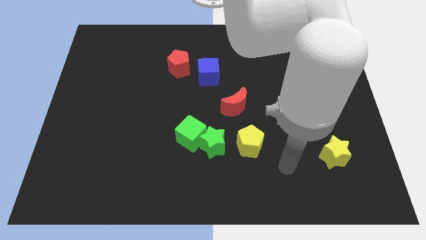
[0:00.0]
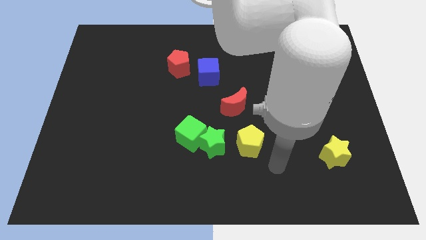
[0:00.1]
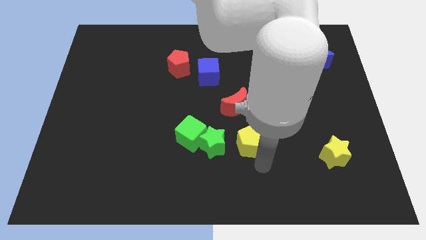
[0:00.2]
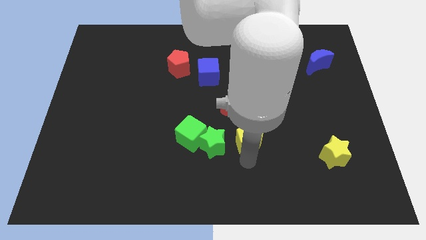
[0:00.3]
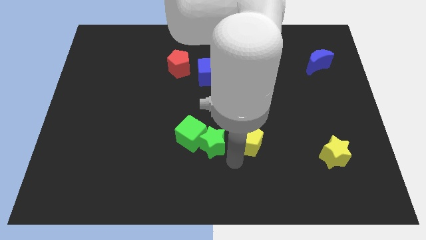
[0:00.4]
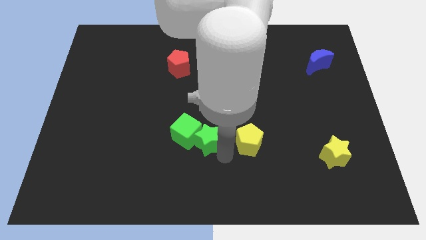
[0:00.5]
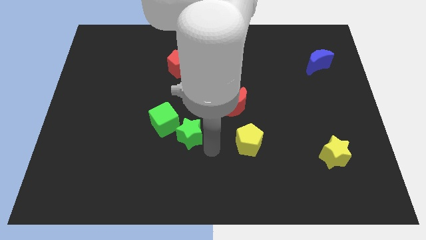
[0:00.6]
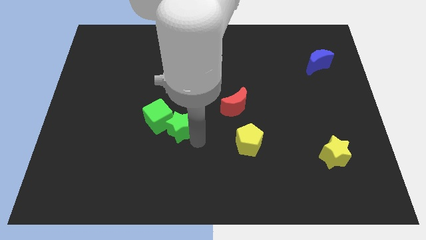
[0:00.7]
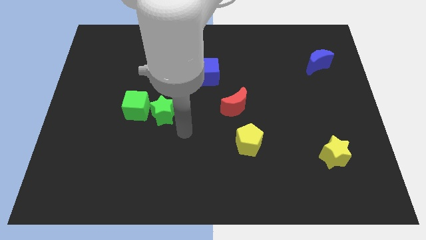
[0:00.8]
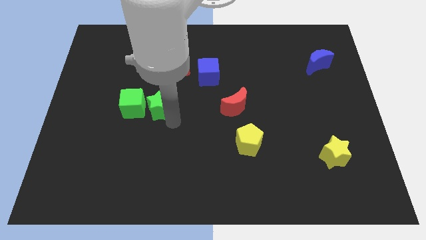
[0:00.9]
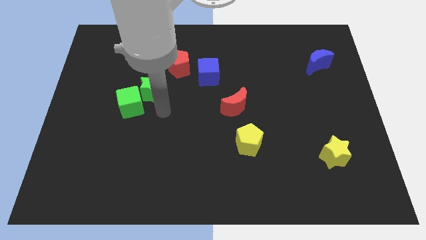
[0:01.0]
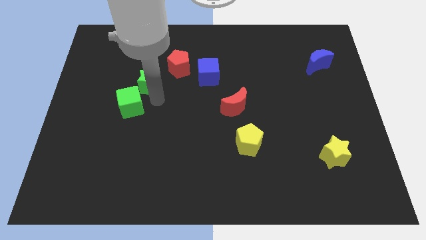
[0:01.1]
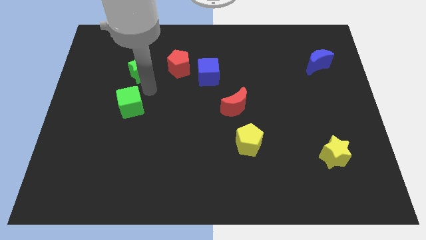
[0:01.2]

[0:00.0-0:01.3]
pull the green cube apart from the green star

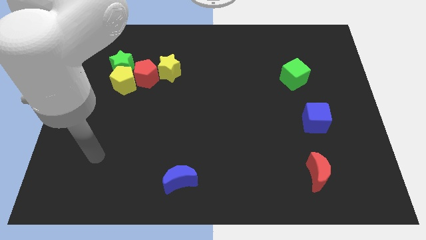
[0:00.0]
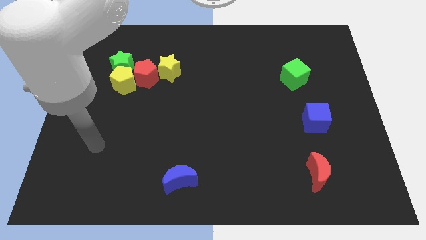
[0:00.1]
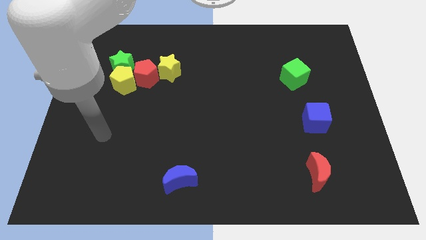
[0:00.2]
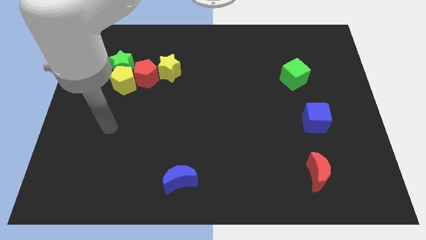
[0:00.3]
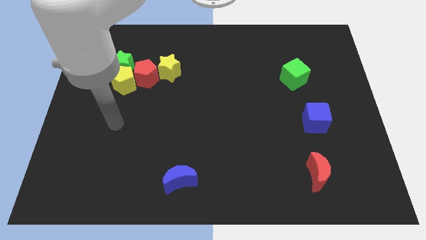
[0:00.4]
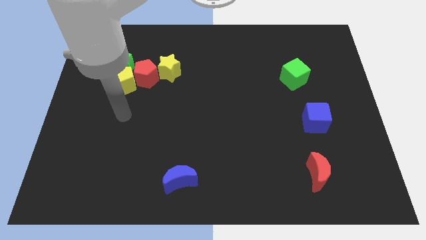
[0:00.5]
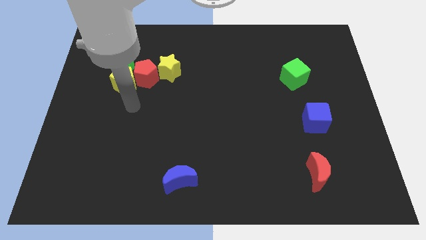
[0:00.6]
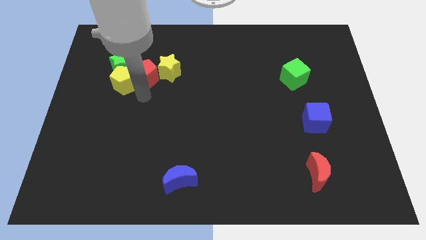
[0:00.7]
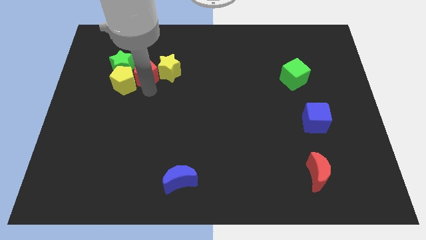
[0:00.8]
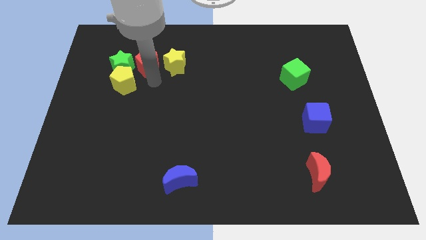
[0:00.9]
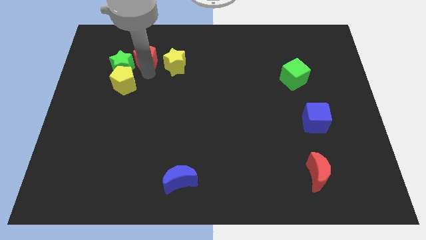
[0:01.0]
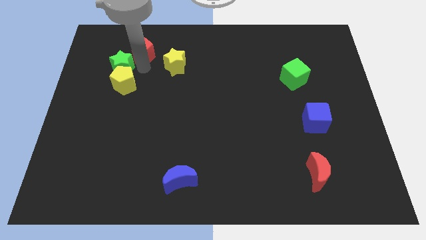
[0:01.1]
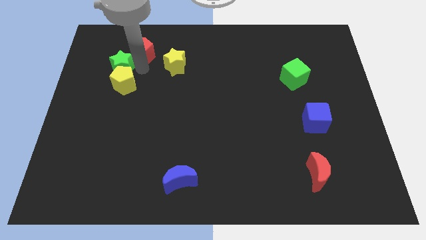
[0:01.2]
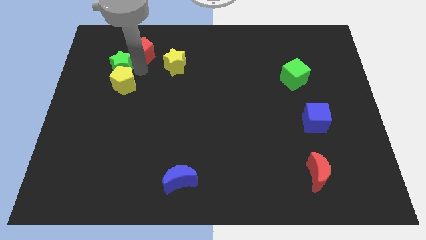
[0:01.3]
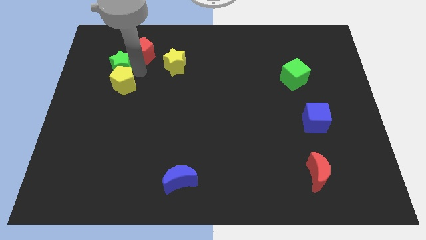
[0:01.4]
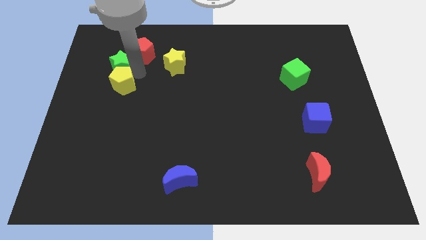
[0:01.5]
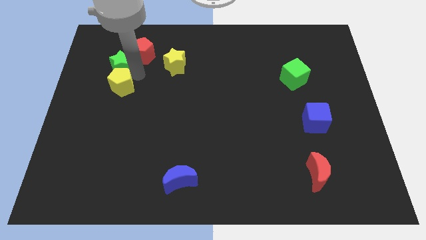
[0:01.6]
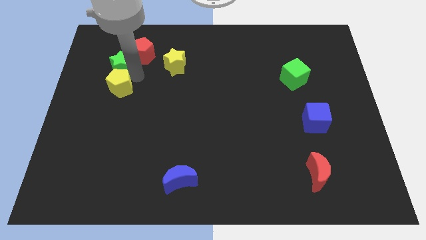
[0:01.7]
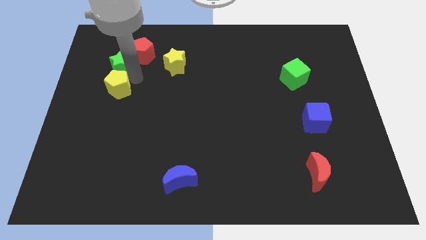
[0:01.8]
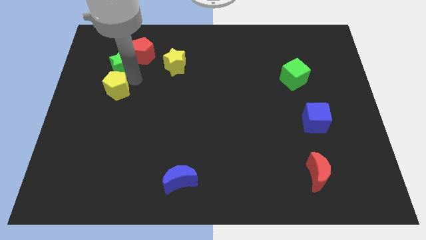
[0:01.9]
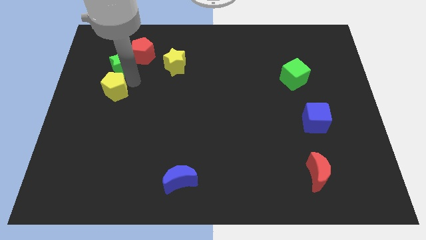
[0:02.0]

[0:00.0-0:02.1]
separate the yellow pentagon from the green star and red pentagon

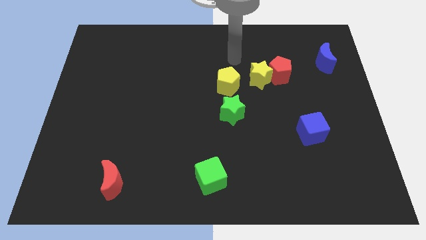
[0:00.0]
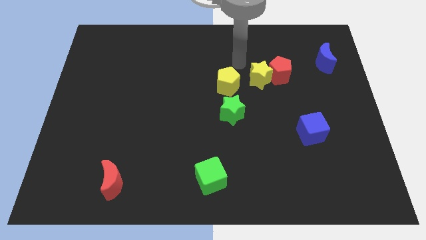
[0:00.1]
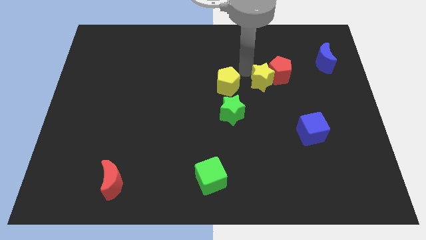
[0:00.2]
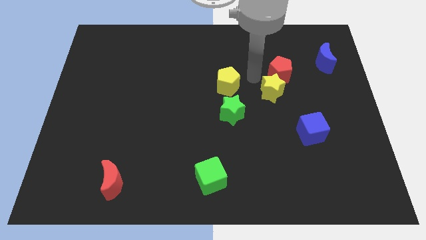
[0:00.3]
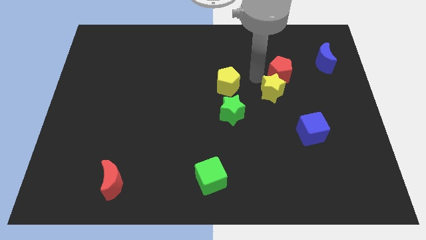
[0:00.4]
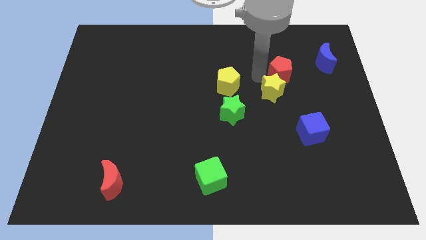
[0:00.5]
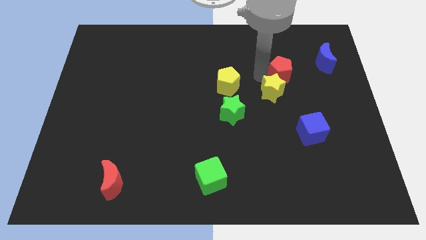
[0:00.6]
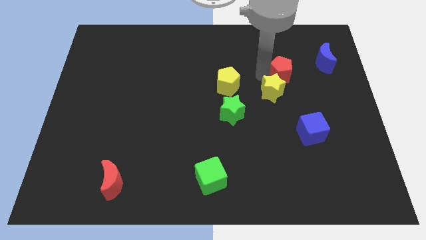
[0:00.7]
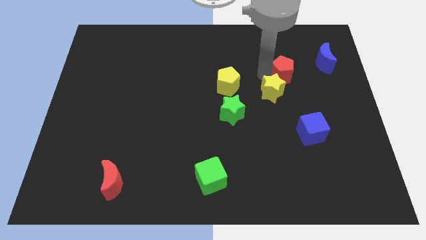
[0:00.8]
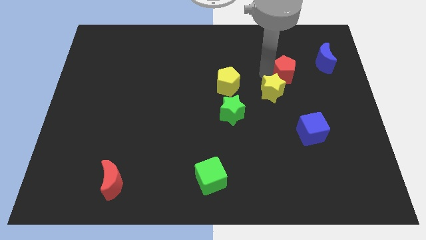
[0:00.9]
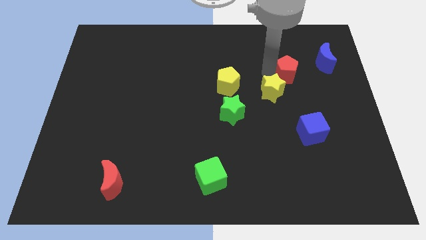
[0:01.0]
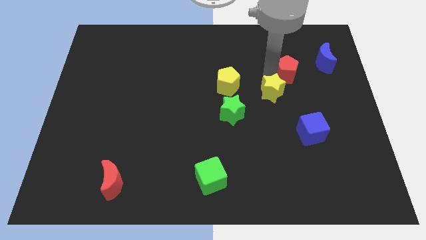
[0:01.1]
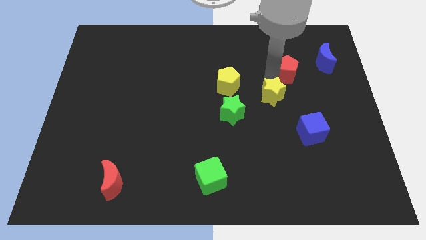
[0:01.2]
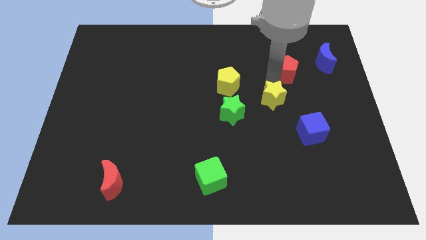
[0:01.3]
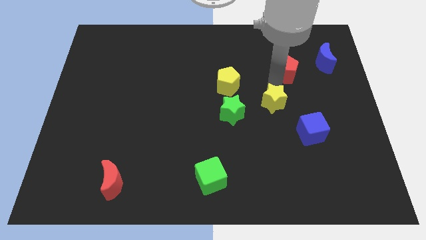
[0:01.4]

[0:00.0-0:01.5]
separate the red pentagon from the yellow star

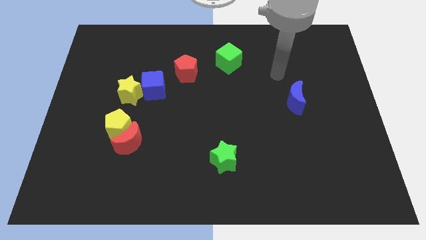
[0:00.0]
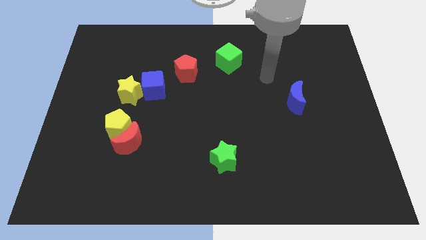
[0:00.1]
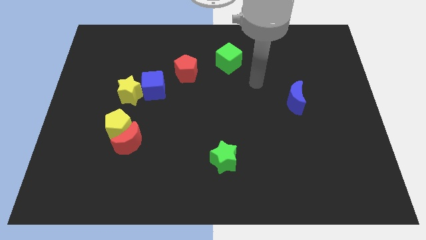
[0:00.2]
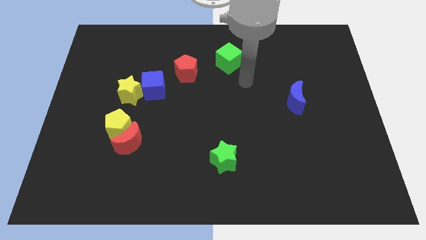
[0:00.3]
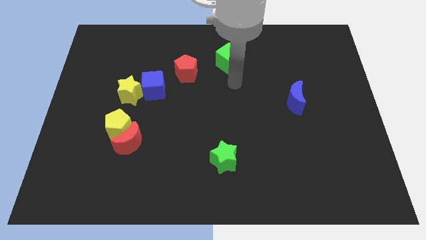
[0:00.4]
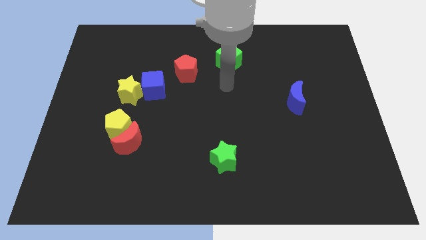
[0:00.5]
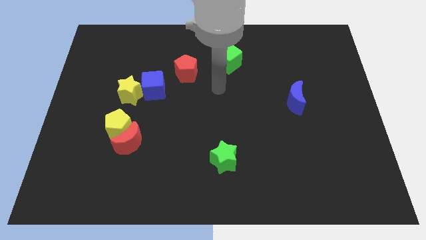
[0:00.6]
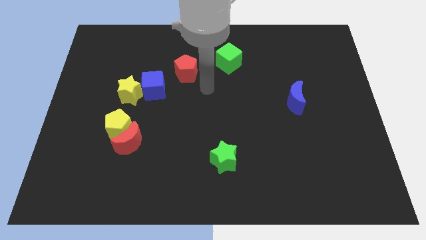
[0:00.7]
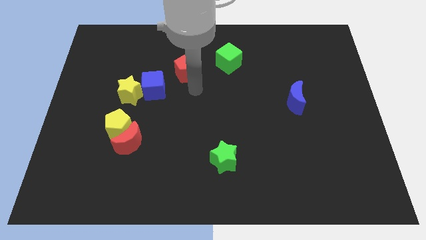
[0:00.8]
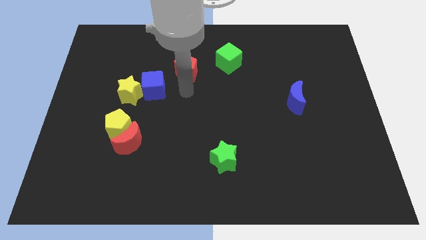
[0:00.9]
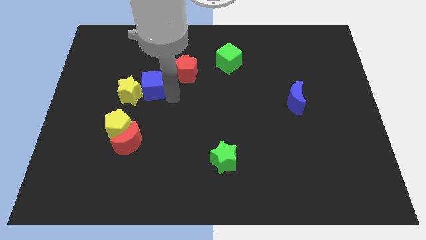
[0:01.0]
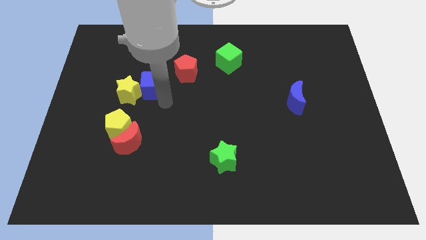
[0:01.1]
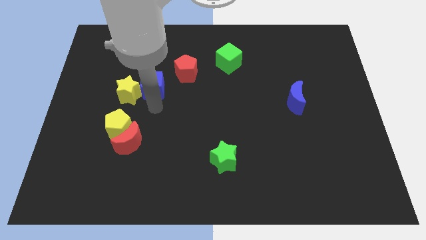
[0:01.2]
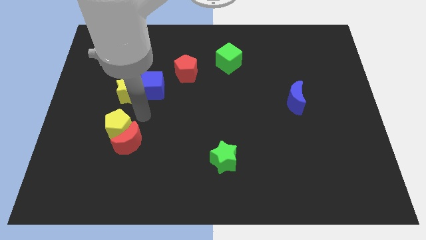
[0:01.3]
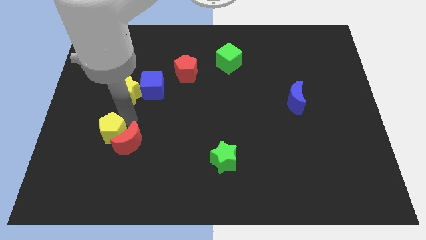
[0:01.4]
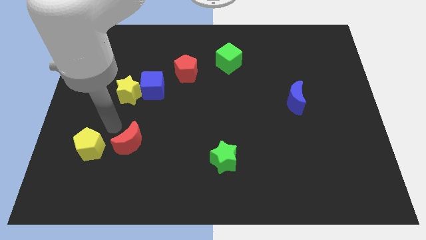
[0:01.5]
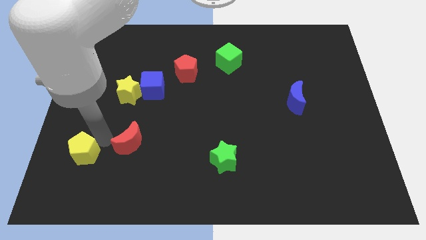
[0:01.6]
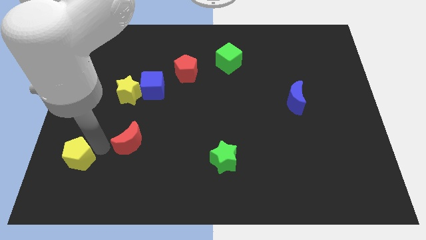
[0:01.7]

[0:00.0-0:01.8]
move the red moon away from the yellow pentagon

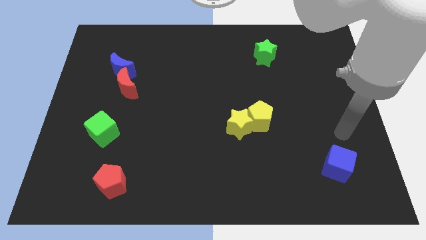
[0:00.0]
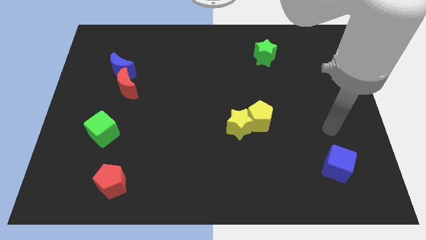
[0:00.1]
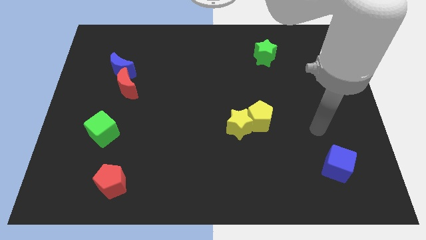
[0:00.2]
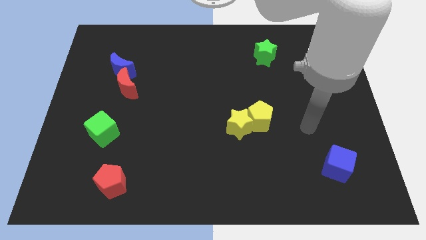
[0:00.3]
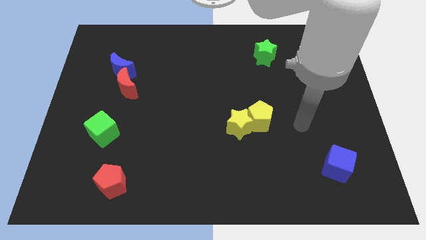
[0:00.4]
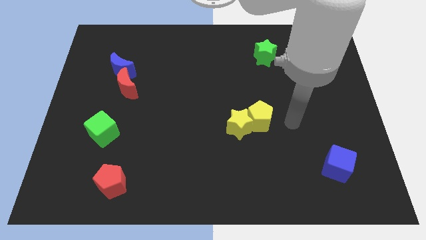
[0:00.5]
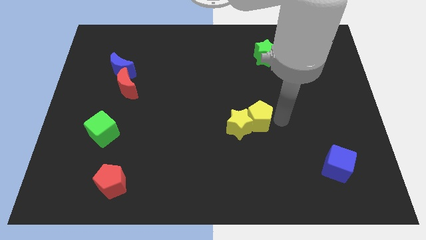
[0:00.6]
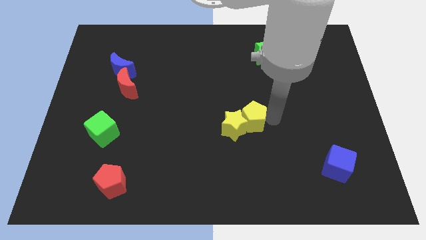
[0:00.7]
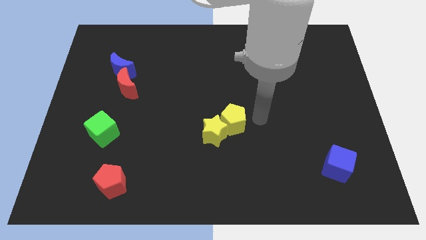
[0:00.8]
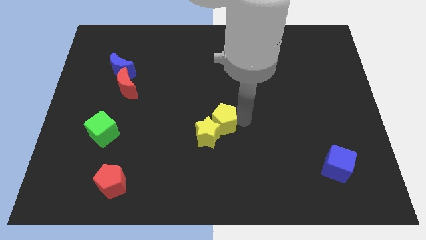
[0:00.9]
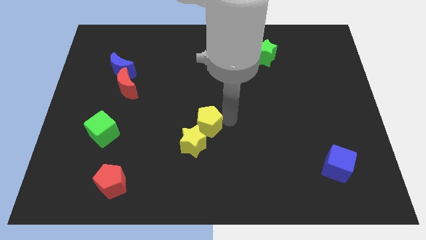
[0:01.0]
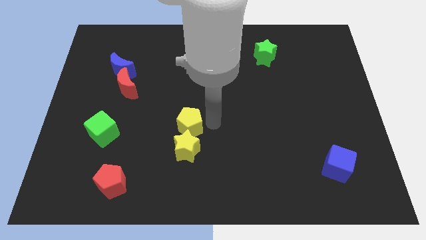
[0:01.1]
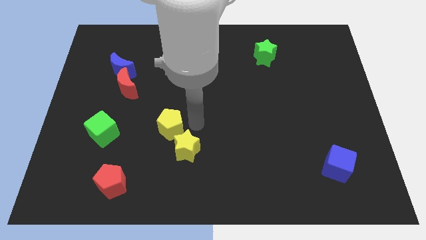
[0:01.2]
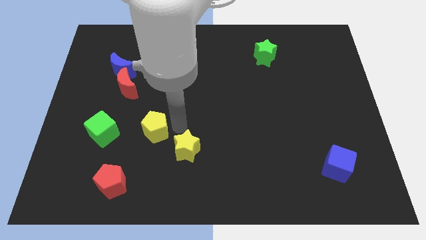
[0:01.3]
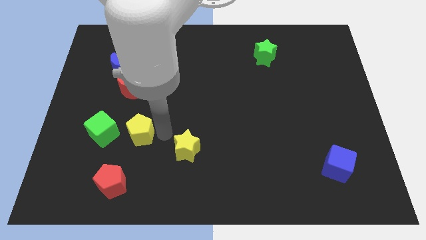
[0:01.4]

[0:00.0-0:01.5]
separate the yellow star from the yellow pentagon

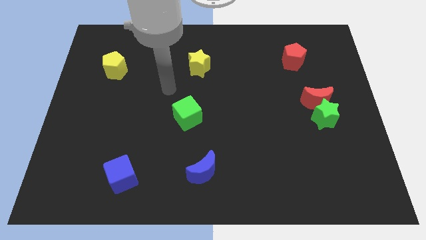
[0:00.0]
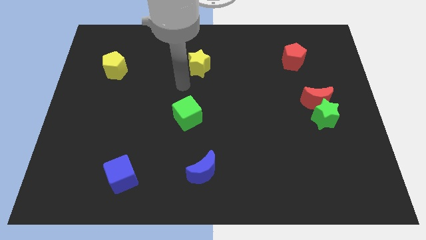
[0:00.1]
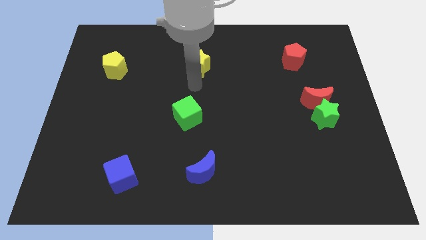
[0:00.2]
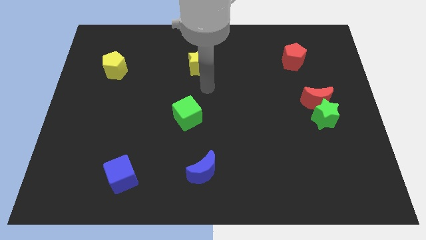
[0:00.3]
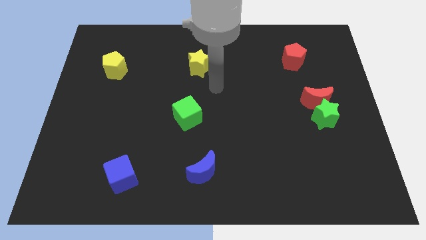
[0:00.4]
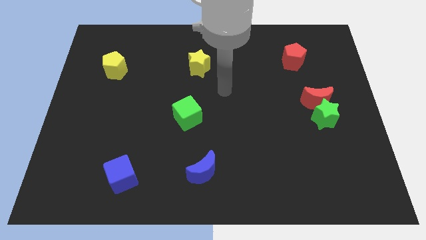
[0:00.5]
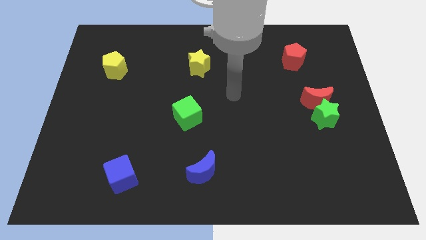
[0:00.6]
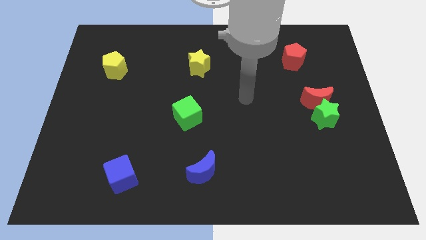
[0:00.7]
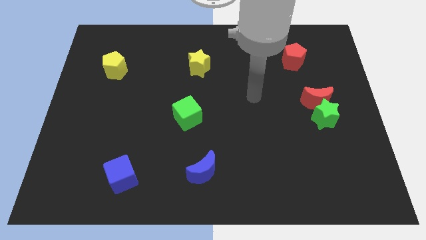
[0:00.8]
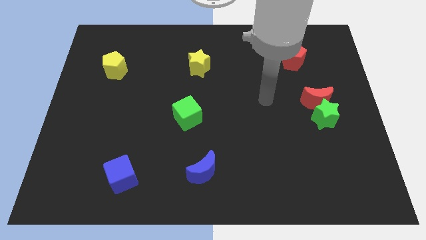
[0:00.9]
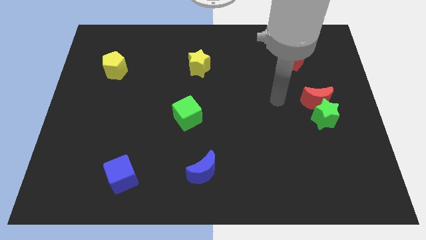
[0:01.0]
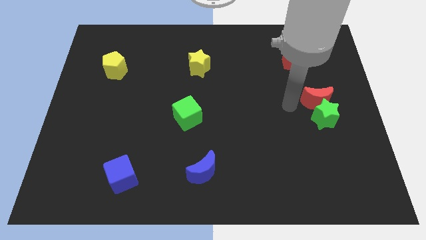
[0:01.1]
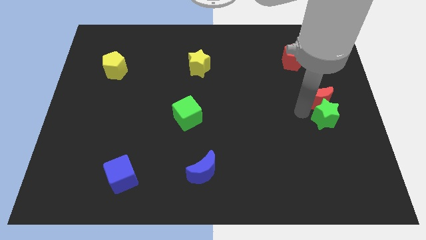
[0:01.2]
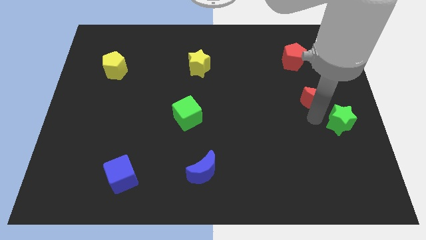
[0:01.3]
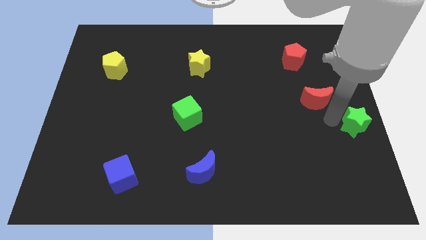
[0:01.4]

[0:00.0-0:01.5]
separate the red moon from the green star
